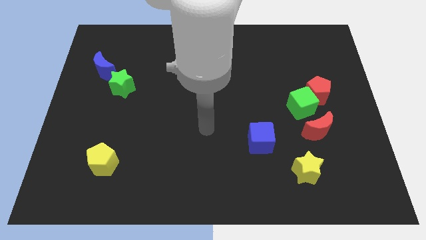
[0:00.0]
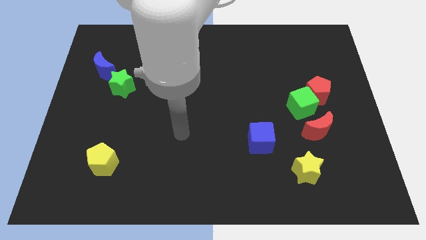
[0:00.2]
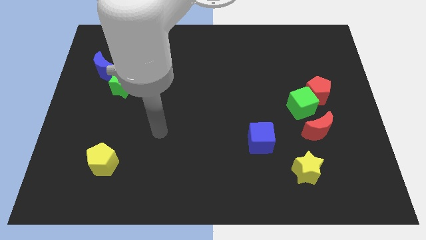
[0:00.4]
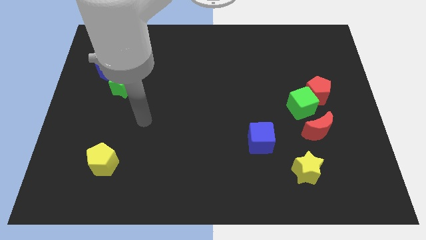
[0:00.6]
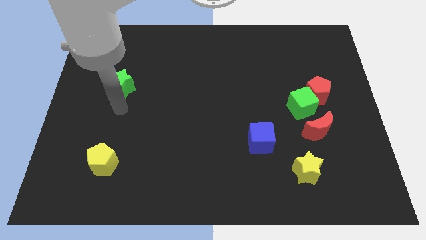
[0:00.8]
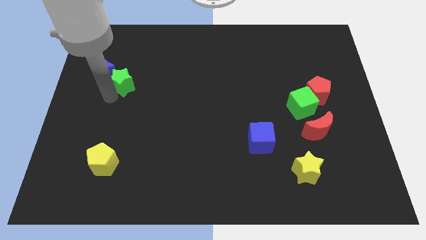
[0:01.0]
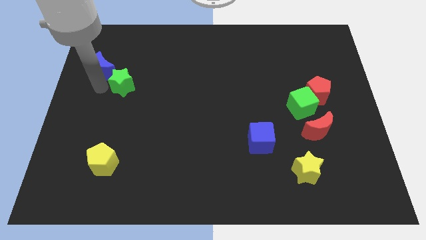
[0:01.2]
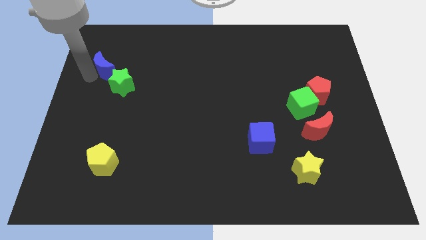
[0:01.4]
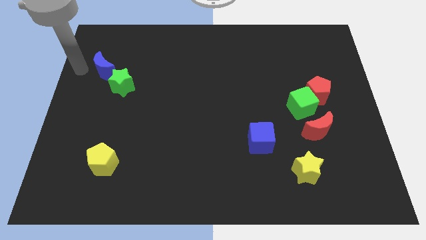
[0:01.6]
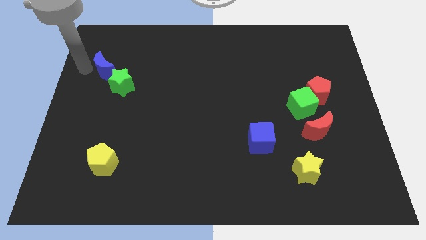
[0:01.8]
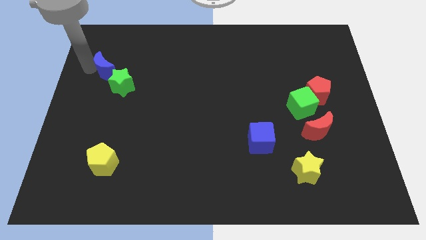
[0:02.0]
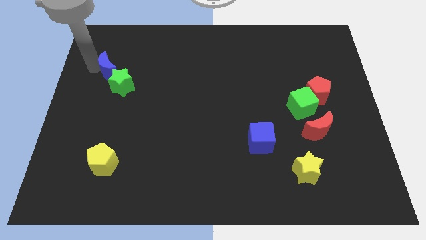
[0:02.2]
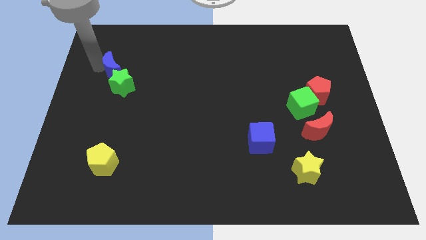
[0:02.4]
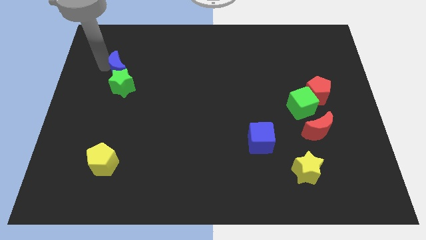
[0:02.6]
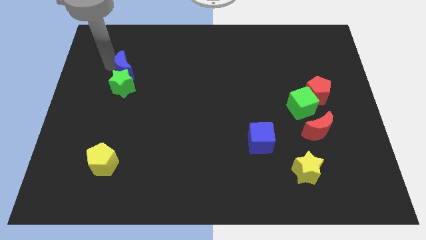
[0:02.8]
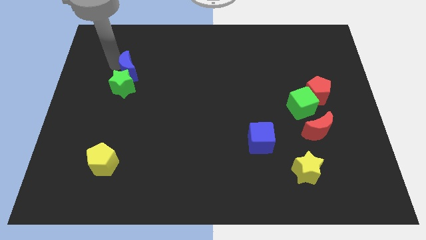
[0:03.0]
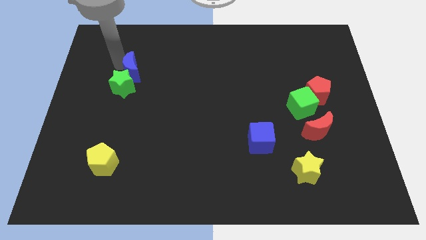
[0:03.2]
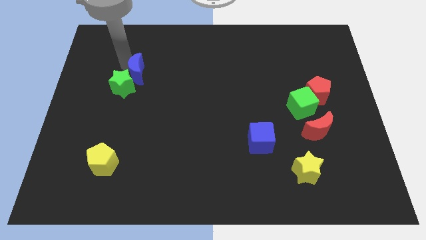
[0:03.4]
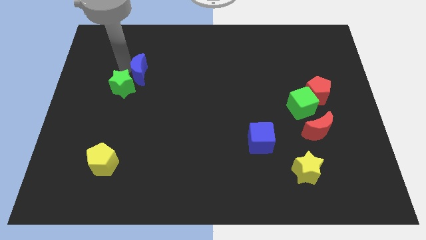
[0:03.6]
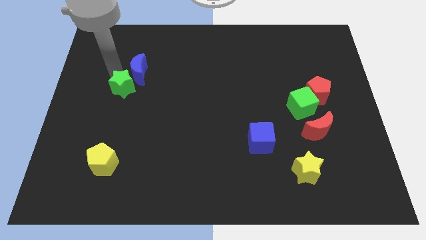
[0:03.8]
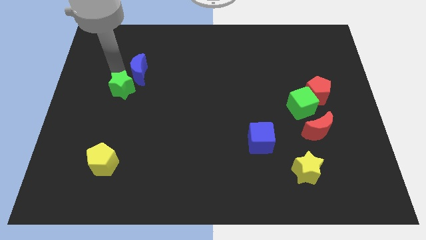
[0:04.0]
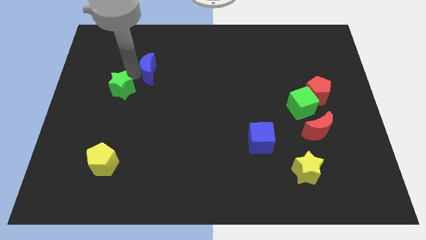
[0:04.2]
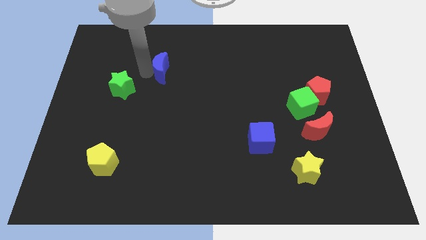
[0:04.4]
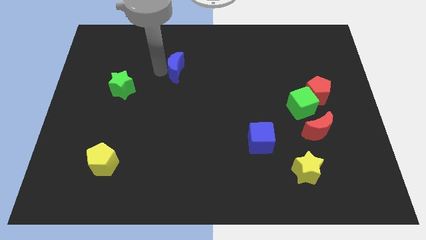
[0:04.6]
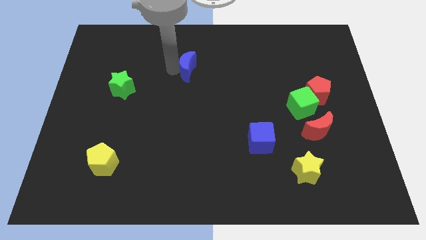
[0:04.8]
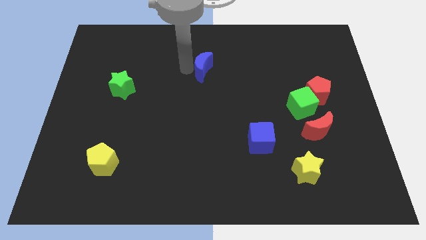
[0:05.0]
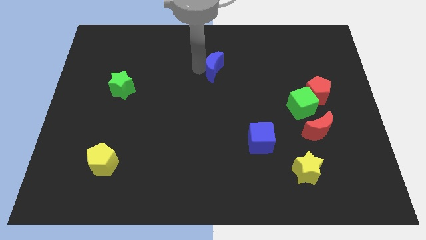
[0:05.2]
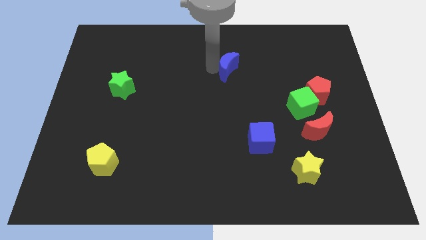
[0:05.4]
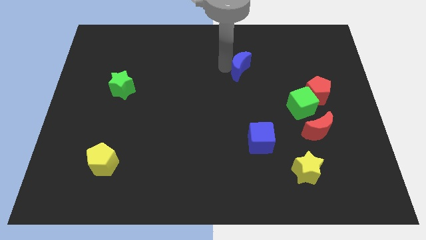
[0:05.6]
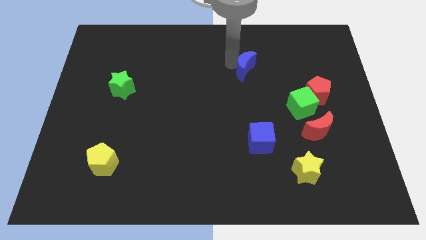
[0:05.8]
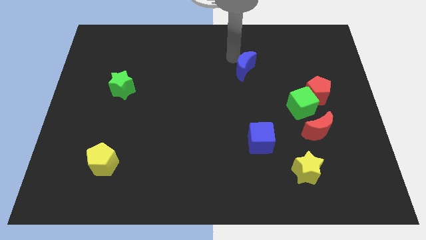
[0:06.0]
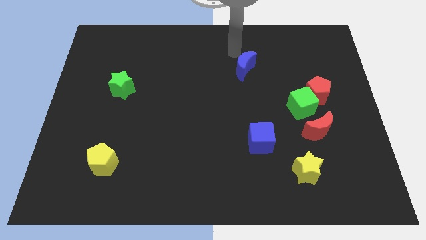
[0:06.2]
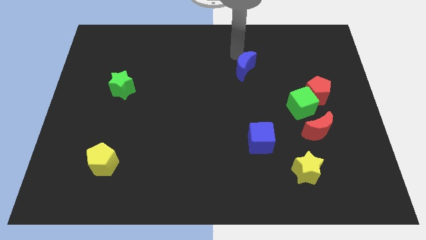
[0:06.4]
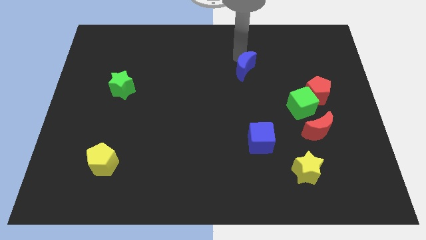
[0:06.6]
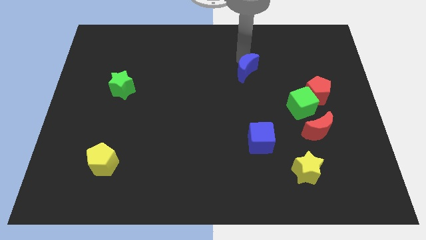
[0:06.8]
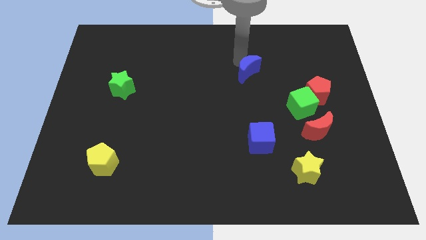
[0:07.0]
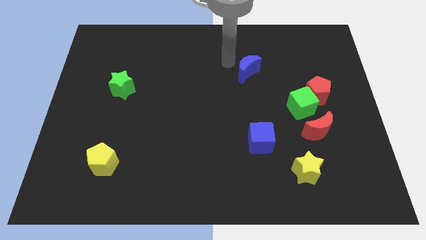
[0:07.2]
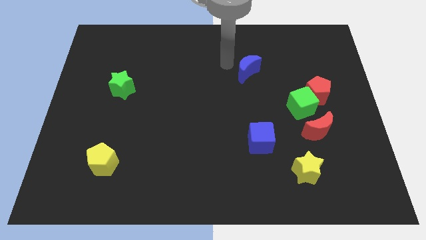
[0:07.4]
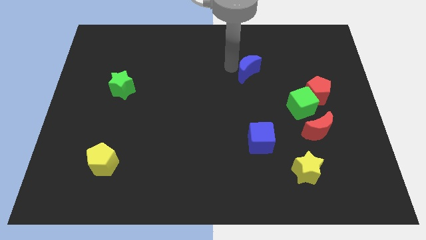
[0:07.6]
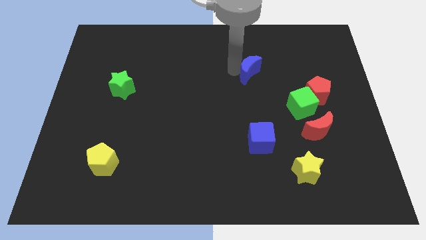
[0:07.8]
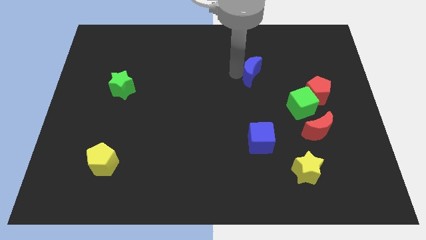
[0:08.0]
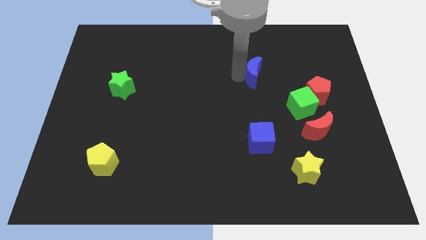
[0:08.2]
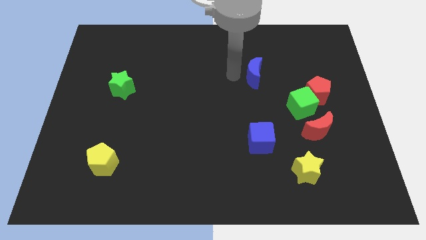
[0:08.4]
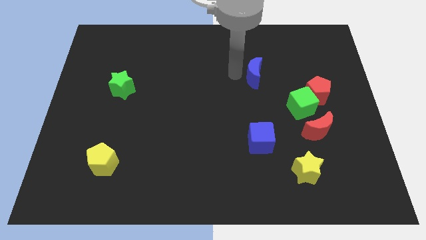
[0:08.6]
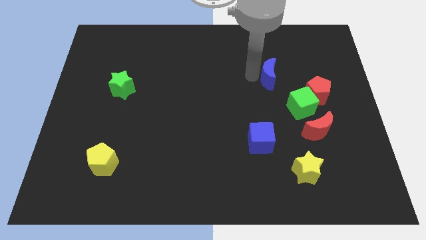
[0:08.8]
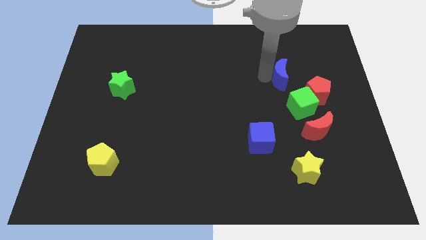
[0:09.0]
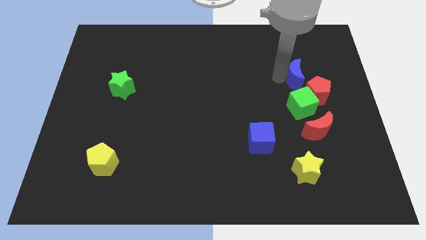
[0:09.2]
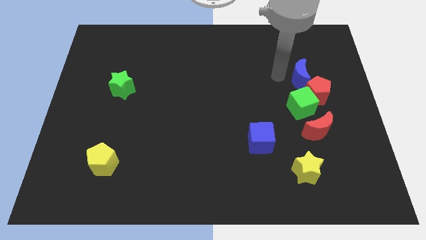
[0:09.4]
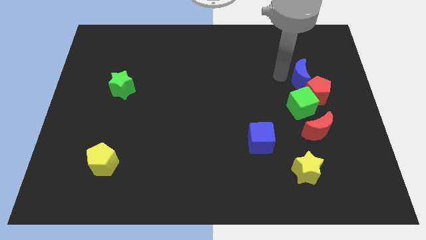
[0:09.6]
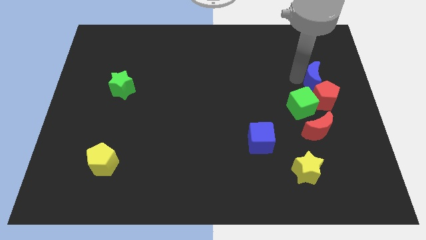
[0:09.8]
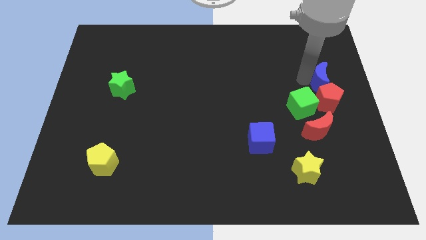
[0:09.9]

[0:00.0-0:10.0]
put the blue moon to the right side of the board

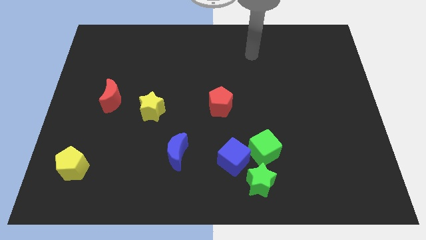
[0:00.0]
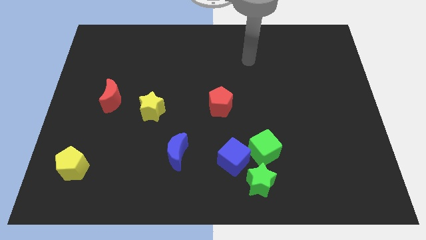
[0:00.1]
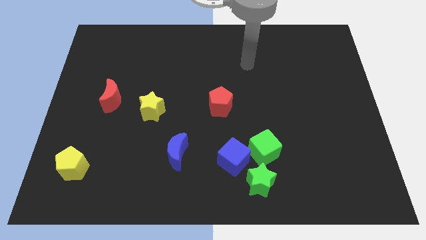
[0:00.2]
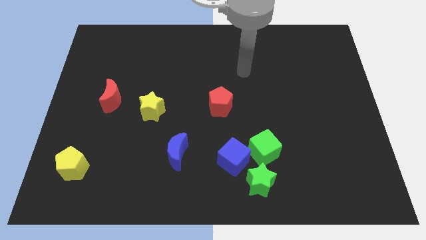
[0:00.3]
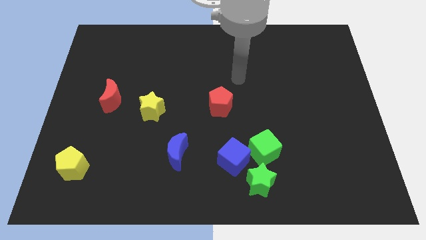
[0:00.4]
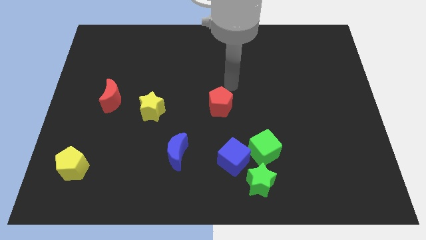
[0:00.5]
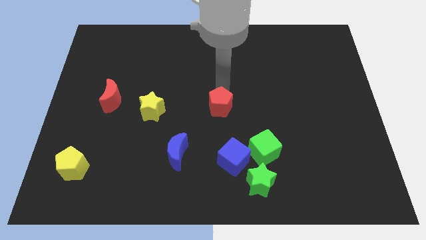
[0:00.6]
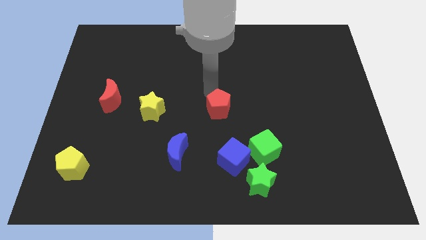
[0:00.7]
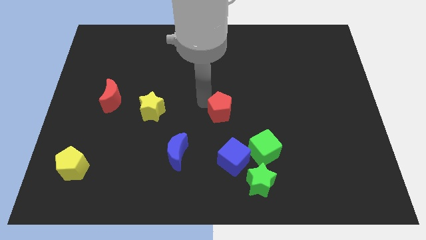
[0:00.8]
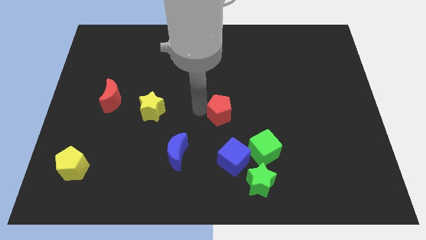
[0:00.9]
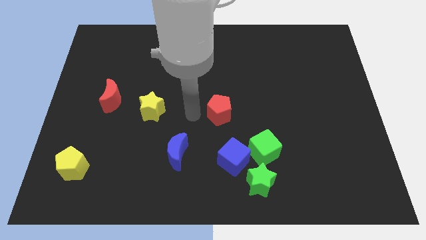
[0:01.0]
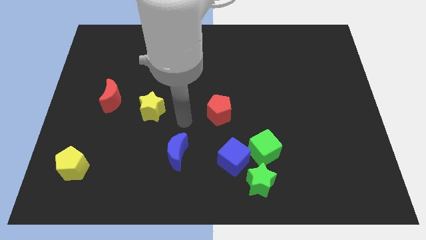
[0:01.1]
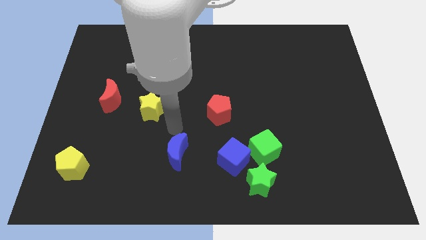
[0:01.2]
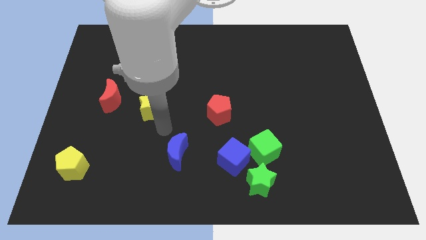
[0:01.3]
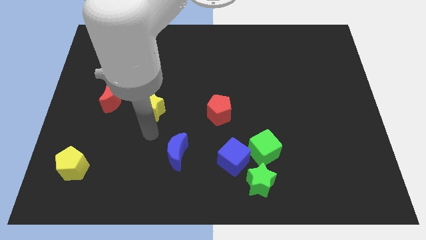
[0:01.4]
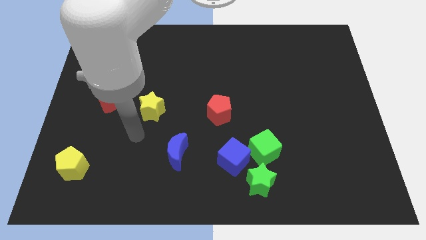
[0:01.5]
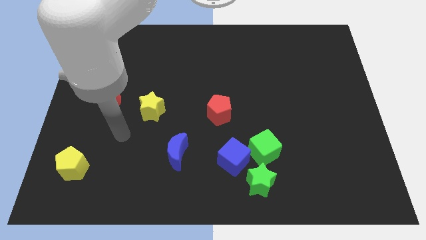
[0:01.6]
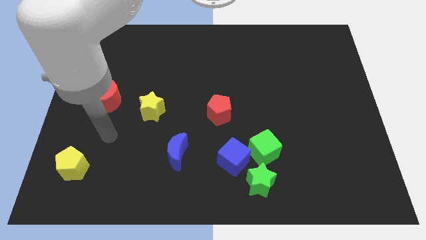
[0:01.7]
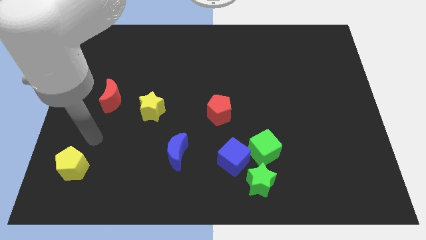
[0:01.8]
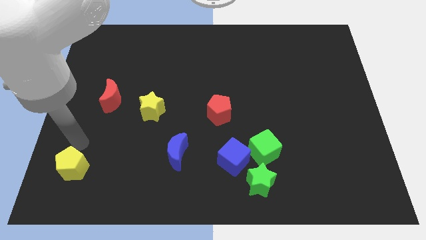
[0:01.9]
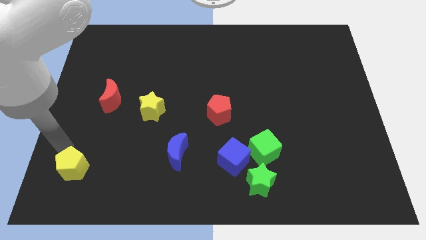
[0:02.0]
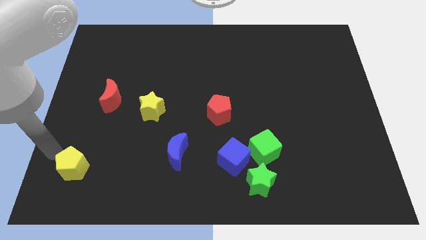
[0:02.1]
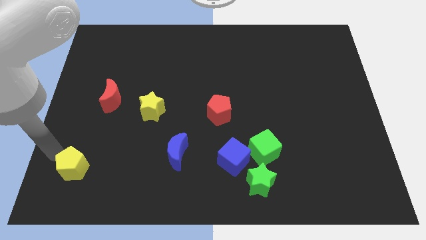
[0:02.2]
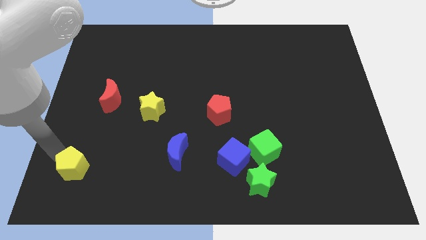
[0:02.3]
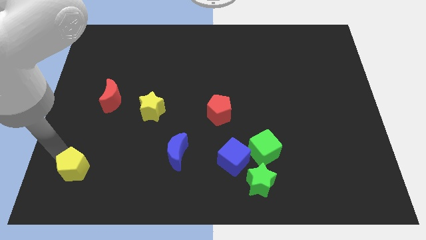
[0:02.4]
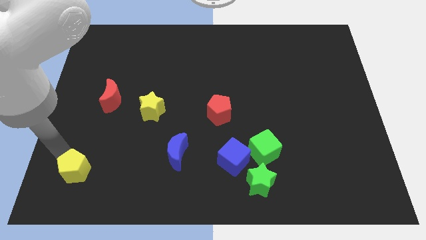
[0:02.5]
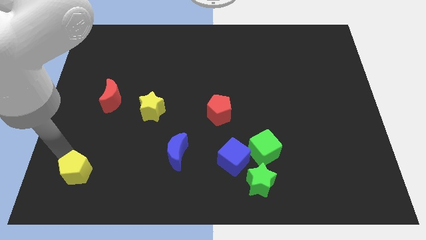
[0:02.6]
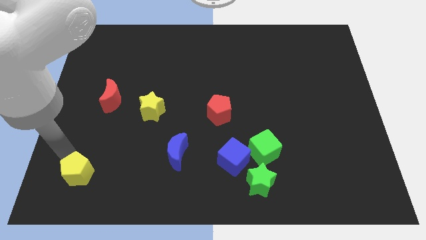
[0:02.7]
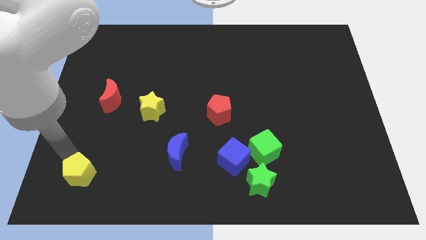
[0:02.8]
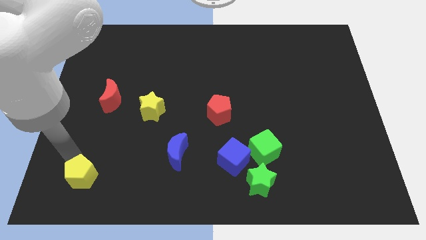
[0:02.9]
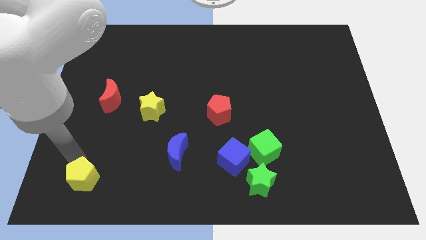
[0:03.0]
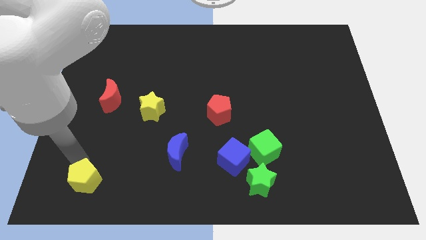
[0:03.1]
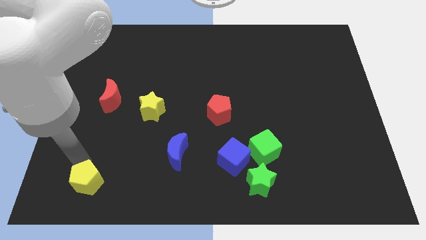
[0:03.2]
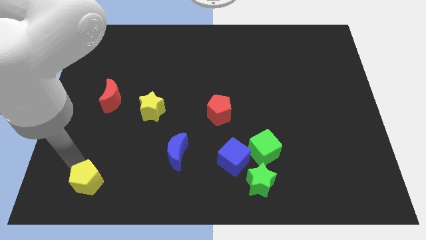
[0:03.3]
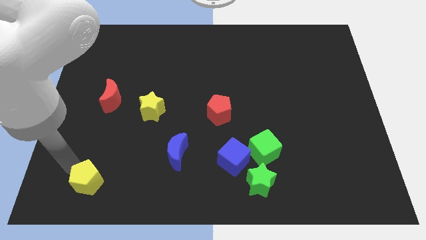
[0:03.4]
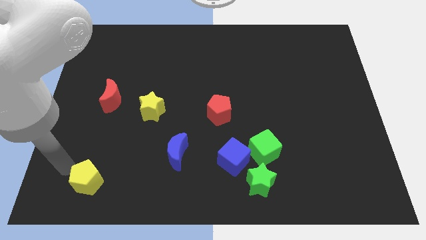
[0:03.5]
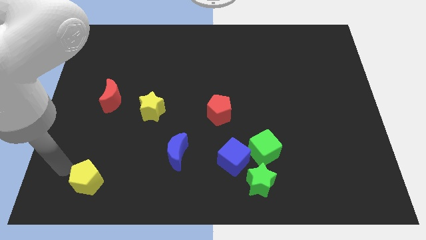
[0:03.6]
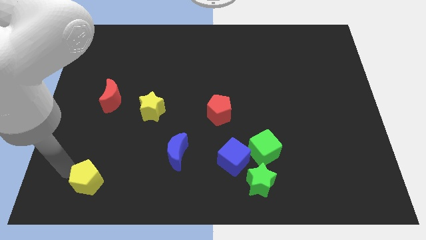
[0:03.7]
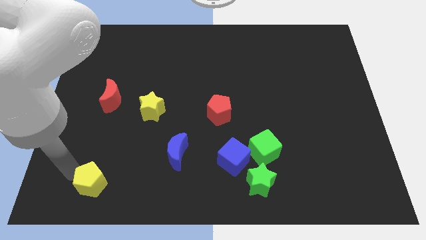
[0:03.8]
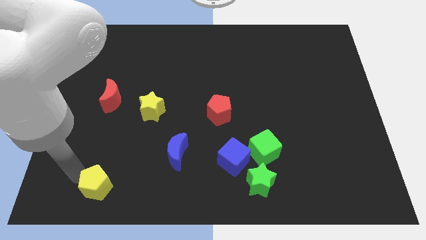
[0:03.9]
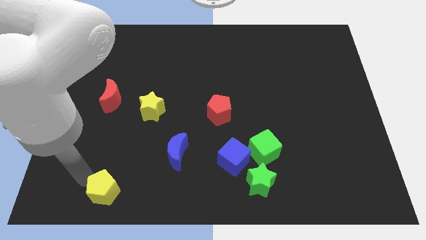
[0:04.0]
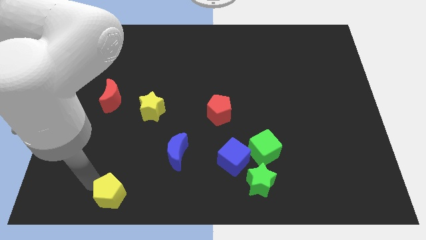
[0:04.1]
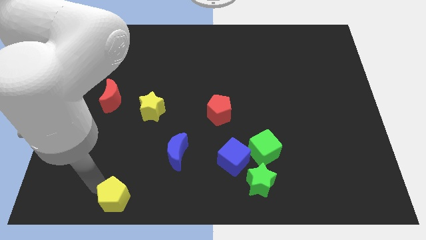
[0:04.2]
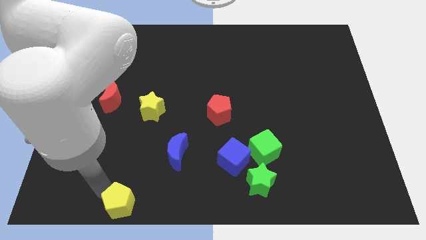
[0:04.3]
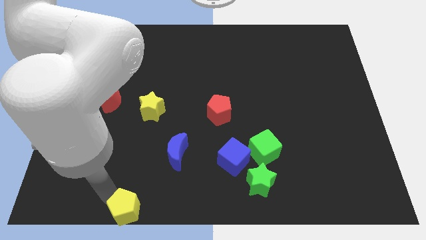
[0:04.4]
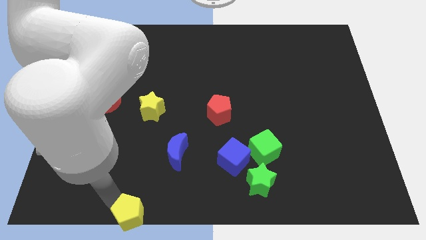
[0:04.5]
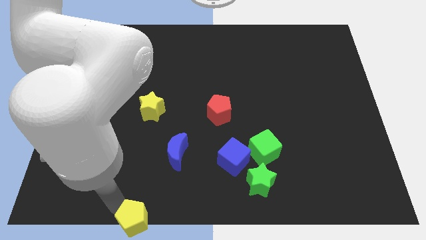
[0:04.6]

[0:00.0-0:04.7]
slide the yellow pentagon to the bottom
